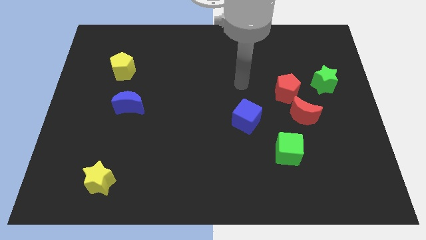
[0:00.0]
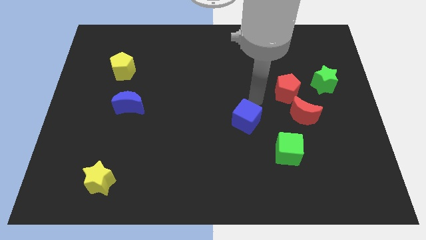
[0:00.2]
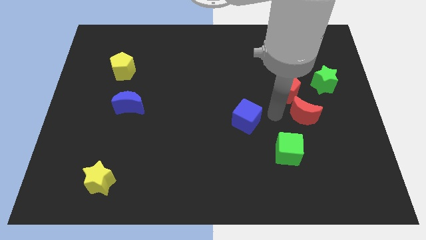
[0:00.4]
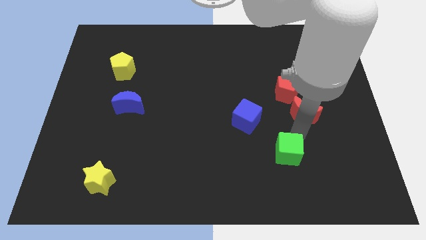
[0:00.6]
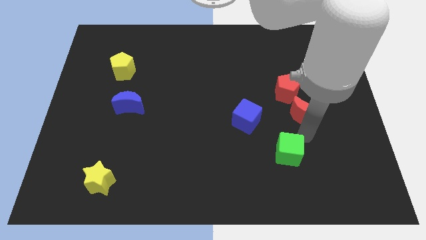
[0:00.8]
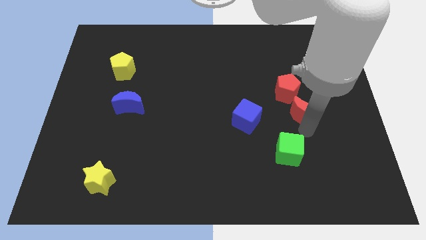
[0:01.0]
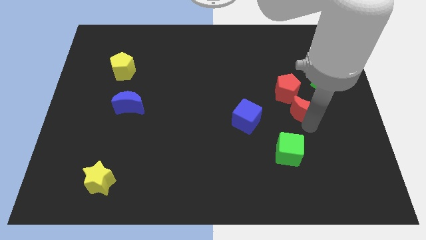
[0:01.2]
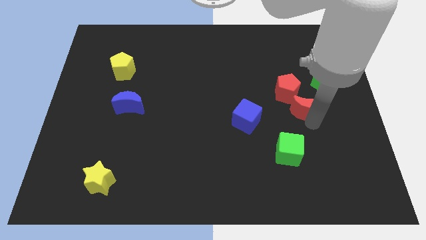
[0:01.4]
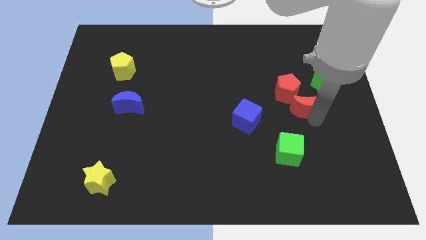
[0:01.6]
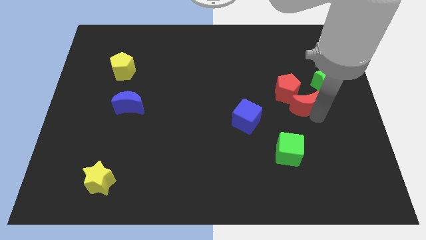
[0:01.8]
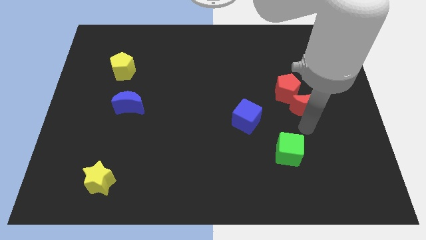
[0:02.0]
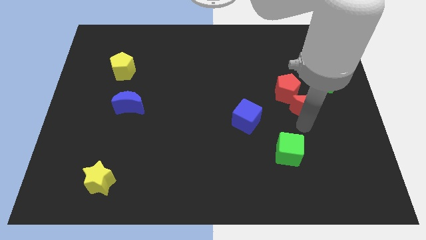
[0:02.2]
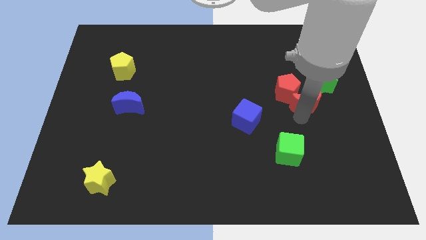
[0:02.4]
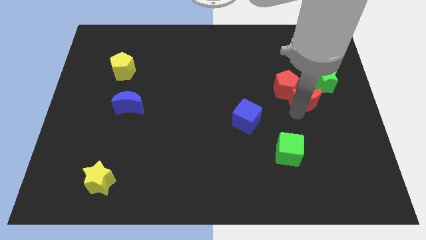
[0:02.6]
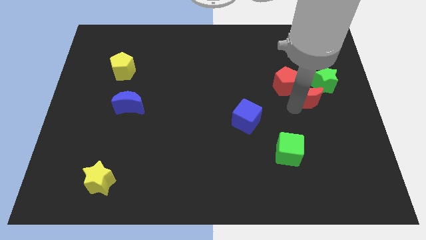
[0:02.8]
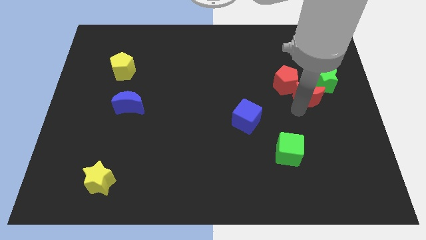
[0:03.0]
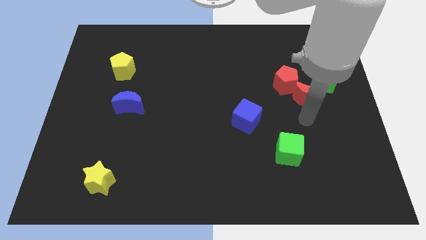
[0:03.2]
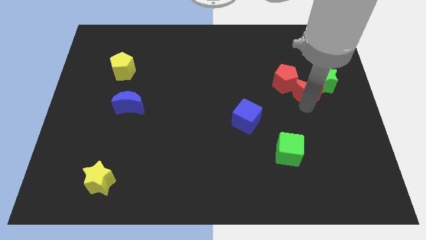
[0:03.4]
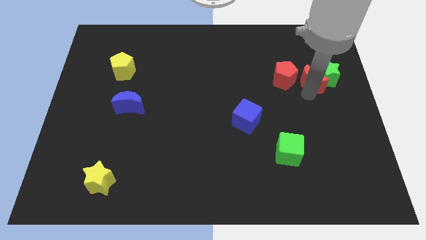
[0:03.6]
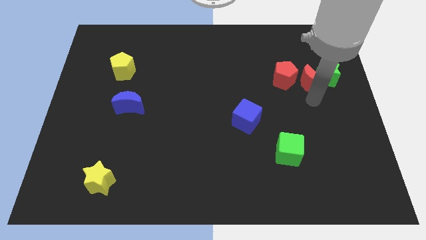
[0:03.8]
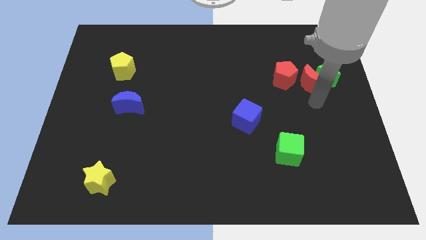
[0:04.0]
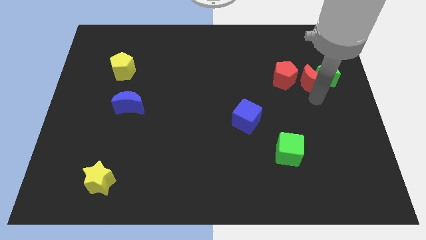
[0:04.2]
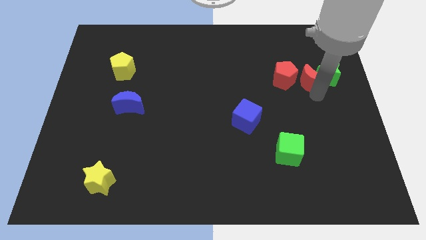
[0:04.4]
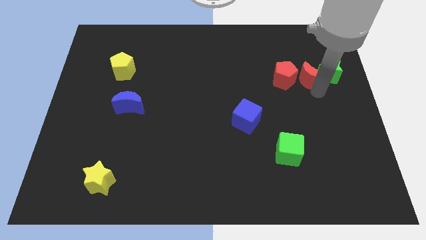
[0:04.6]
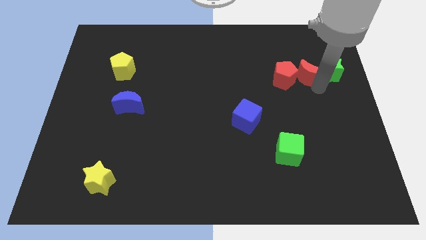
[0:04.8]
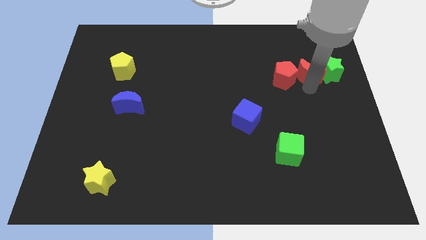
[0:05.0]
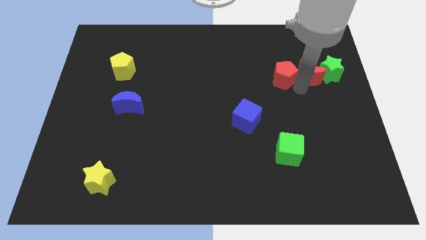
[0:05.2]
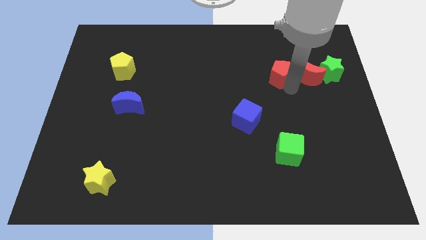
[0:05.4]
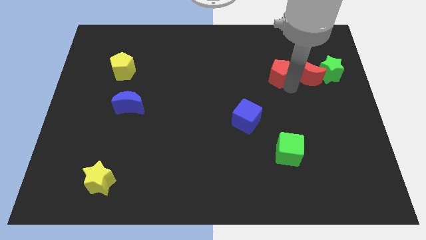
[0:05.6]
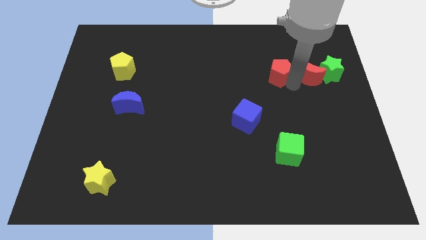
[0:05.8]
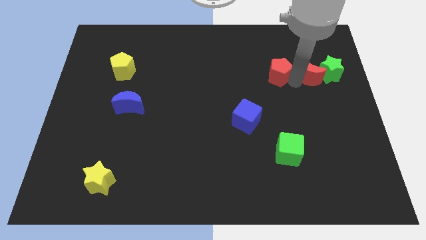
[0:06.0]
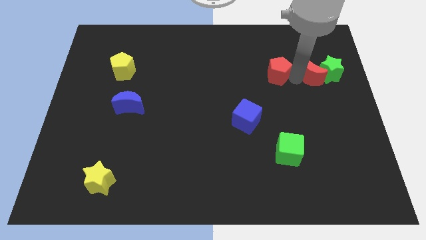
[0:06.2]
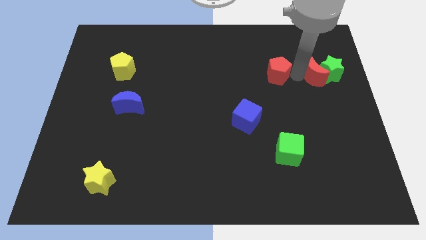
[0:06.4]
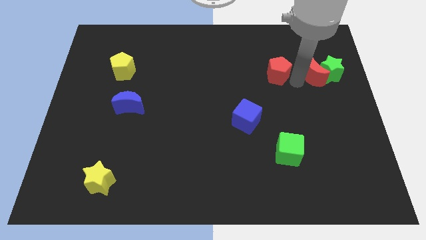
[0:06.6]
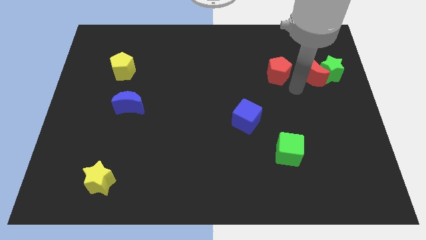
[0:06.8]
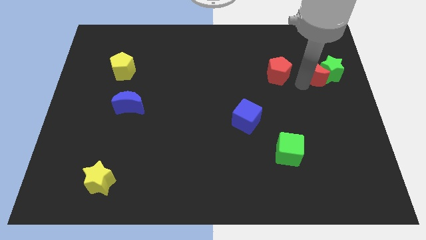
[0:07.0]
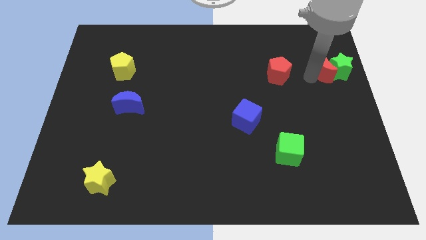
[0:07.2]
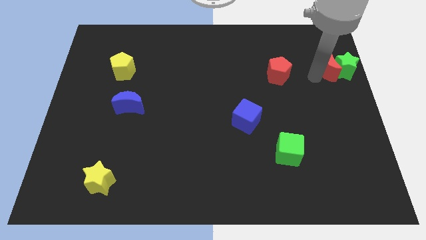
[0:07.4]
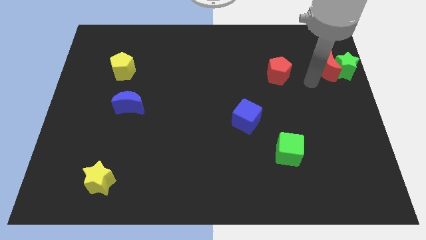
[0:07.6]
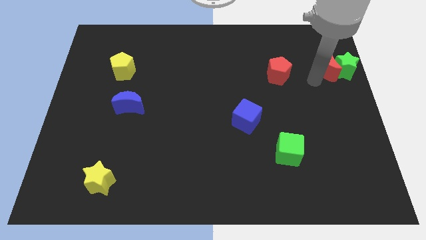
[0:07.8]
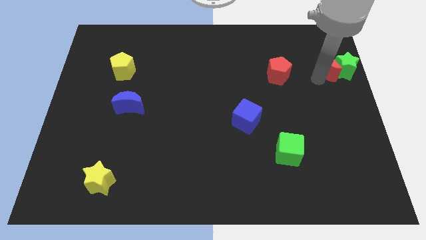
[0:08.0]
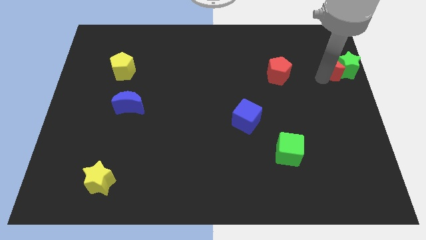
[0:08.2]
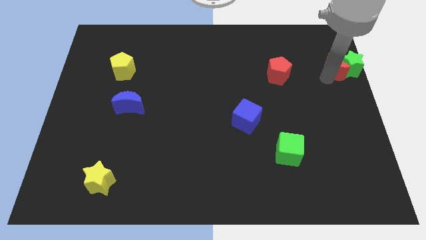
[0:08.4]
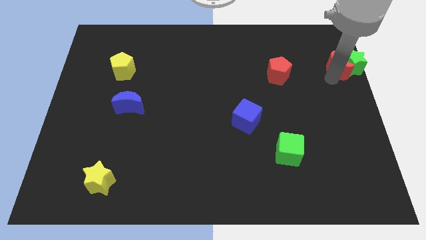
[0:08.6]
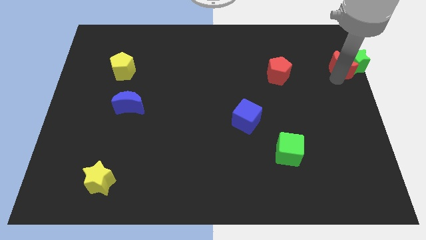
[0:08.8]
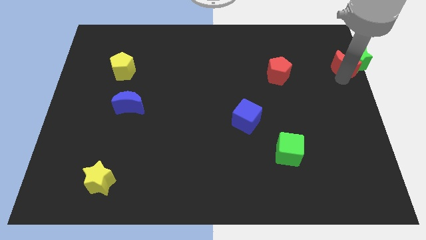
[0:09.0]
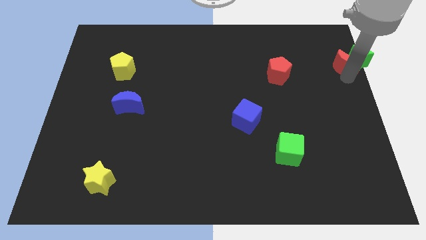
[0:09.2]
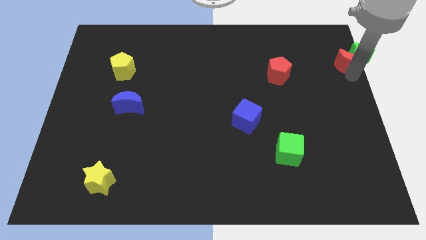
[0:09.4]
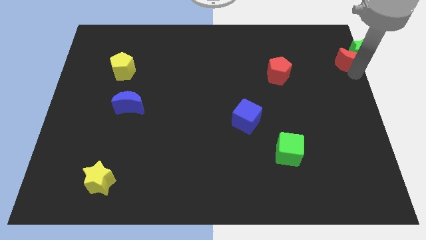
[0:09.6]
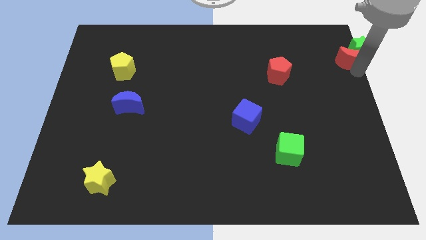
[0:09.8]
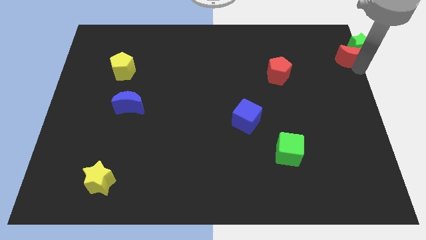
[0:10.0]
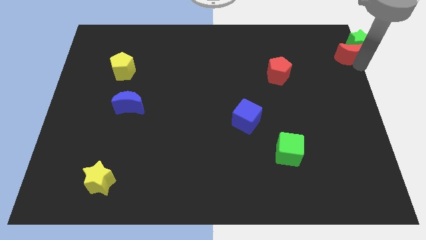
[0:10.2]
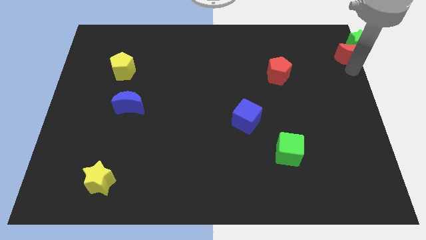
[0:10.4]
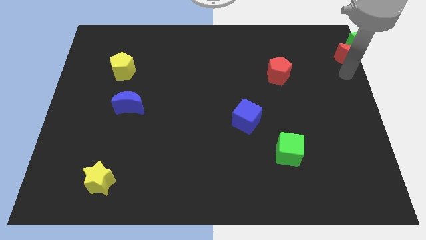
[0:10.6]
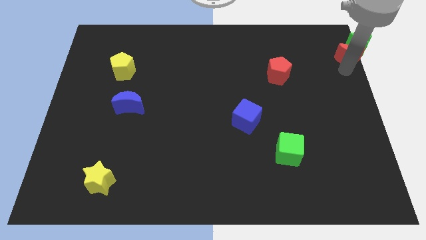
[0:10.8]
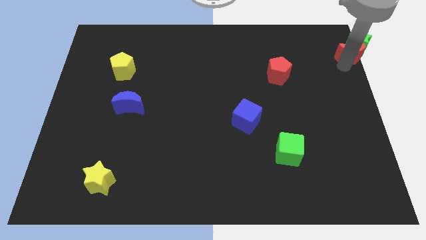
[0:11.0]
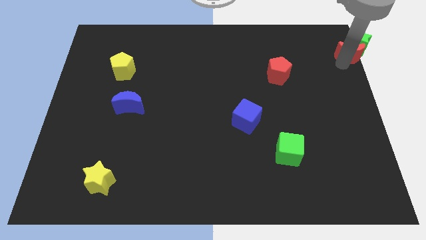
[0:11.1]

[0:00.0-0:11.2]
slide the red moon to the upper right corner

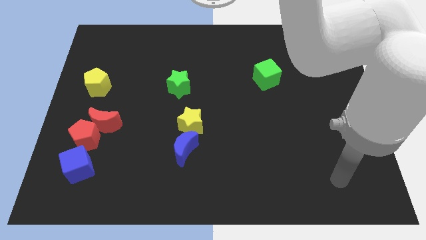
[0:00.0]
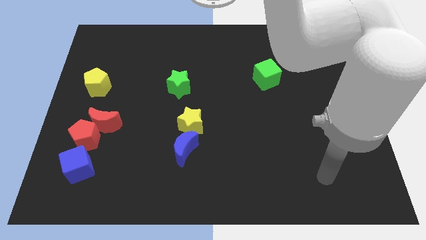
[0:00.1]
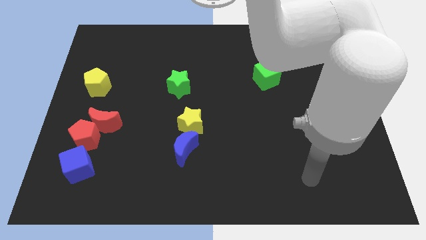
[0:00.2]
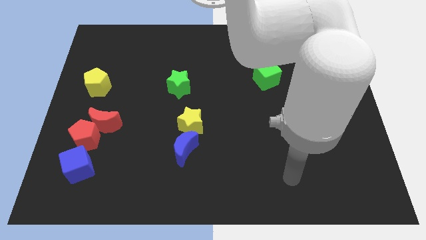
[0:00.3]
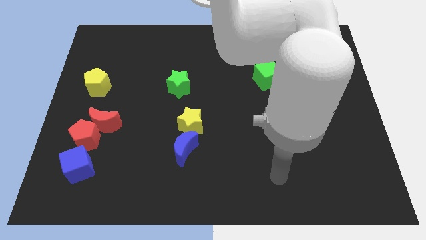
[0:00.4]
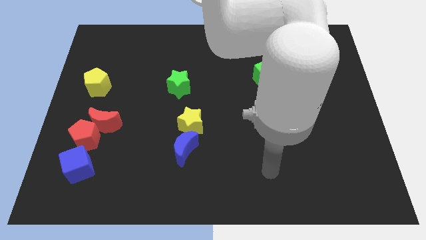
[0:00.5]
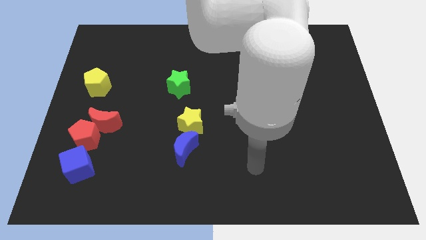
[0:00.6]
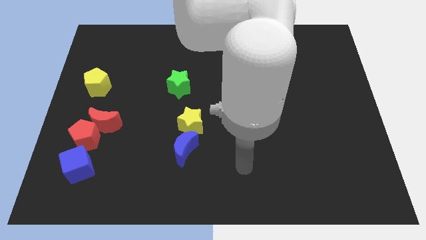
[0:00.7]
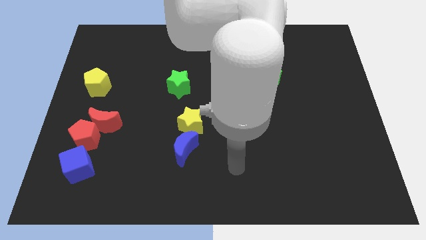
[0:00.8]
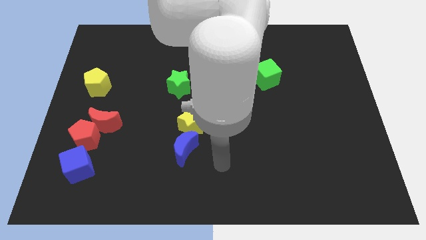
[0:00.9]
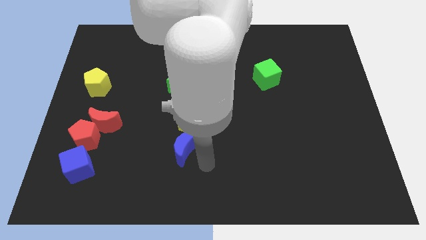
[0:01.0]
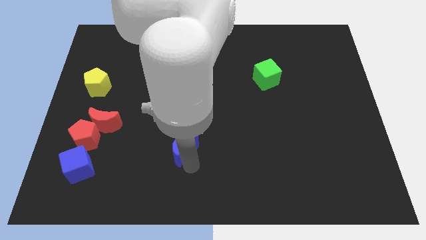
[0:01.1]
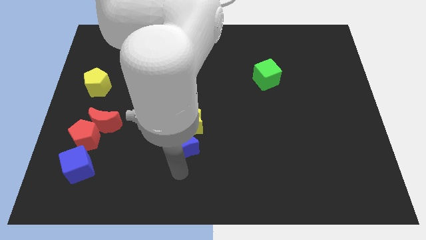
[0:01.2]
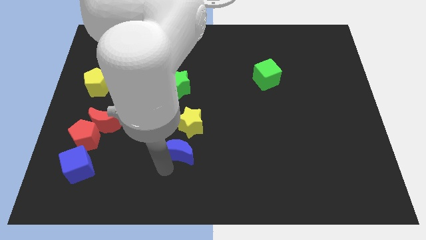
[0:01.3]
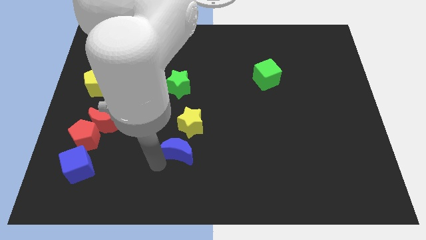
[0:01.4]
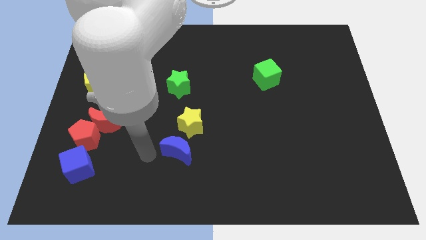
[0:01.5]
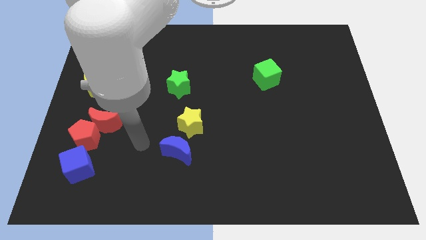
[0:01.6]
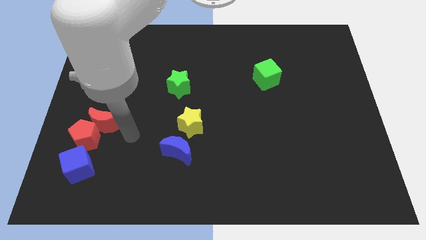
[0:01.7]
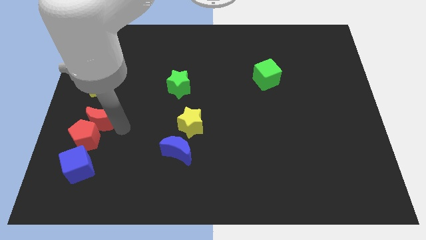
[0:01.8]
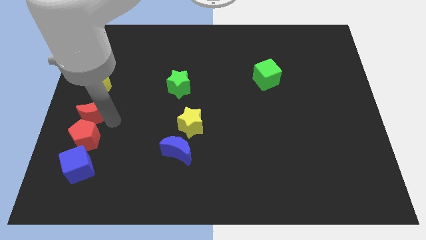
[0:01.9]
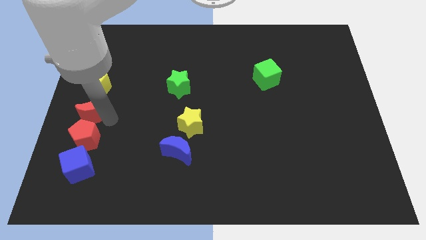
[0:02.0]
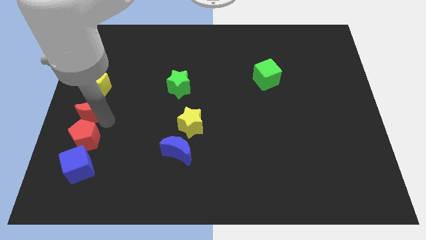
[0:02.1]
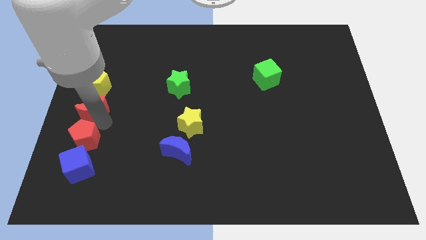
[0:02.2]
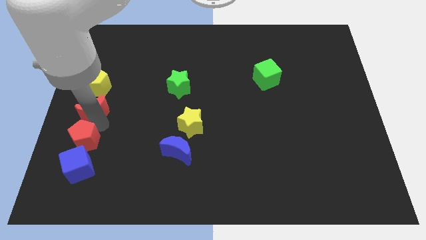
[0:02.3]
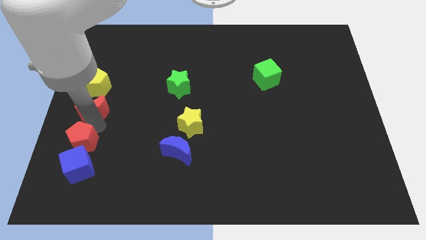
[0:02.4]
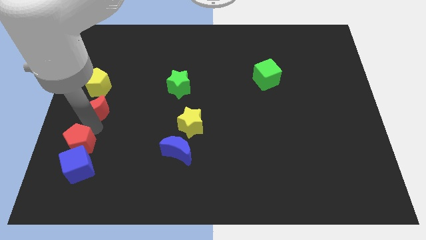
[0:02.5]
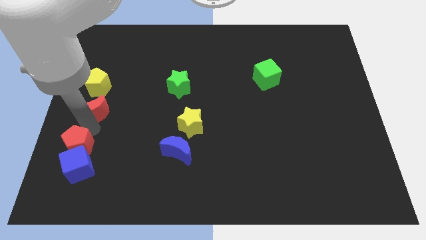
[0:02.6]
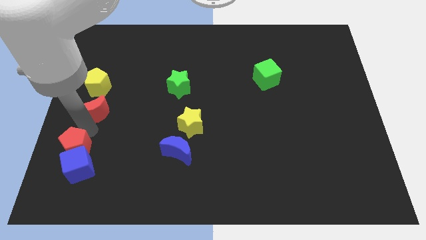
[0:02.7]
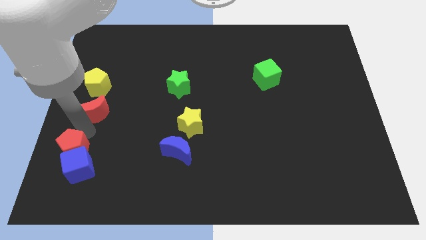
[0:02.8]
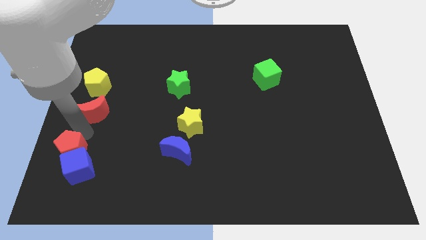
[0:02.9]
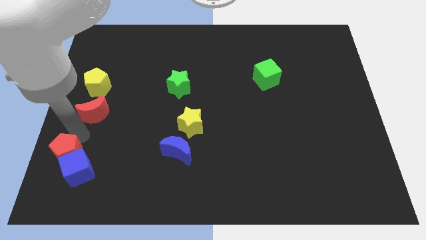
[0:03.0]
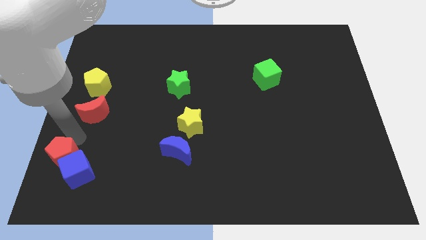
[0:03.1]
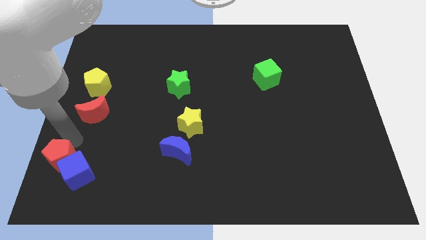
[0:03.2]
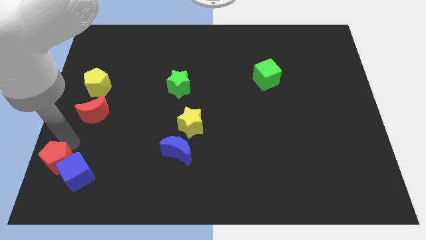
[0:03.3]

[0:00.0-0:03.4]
slide the red pentagon to the lower left corner
